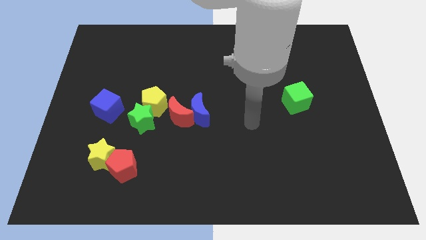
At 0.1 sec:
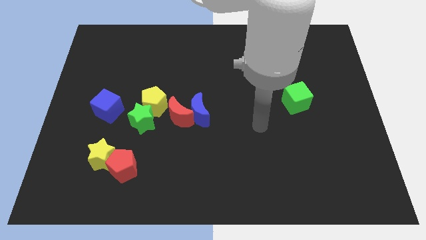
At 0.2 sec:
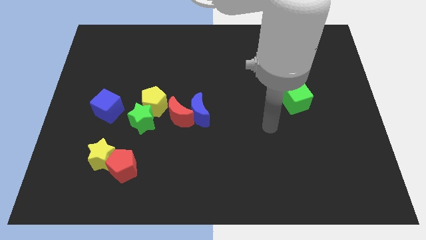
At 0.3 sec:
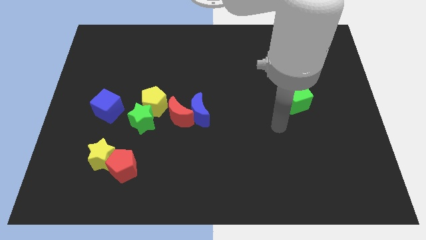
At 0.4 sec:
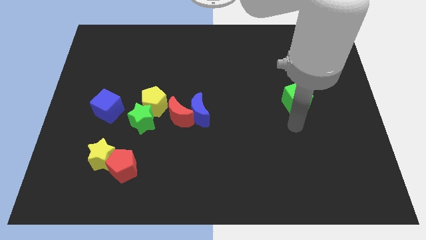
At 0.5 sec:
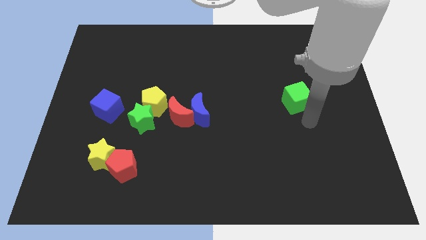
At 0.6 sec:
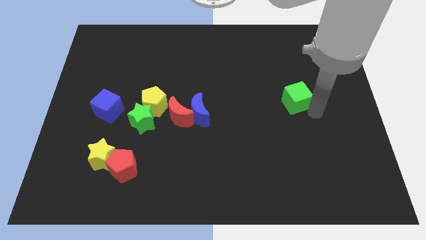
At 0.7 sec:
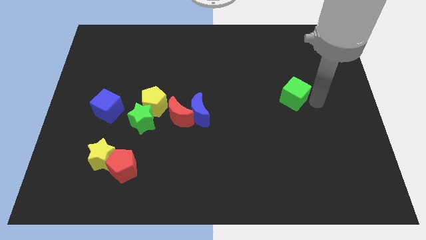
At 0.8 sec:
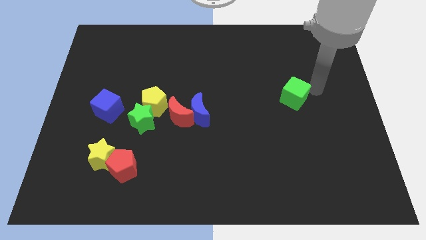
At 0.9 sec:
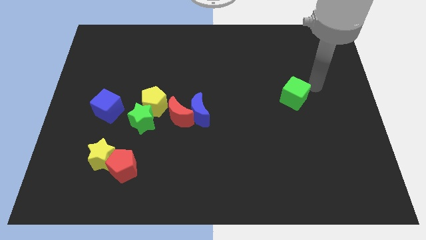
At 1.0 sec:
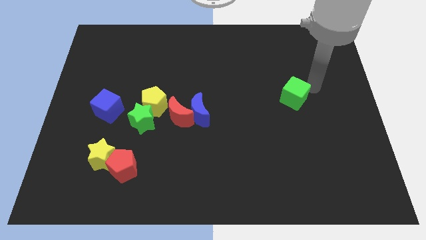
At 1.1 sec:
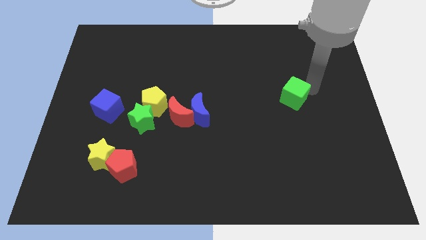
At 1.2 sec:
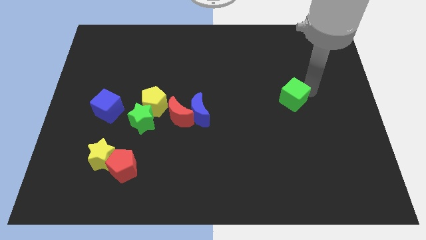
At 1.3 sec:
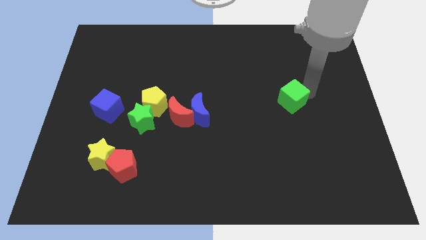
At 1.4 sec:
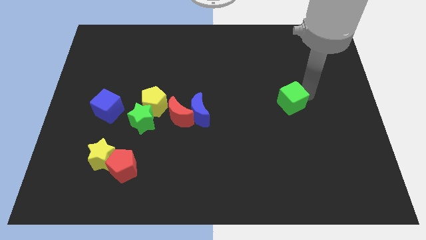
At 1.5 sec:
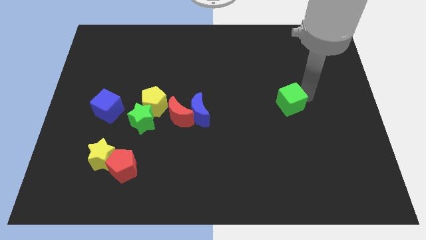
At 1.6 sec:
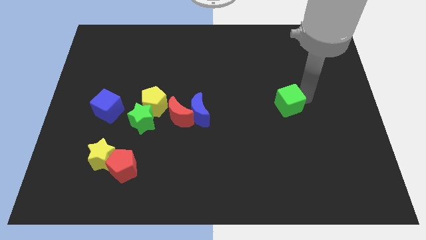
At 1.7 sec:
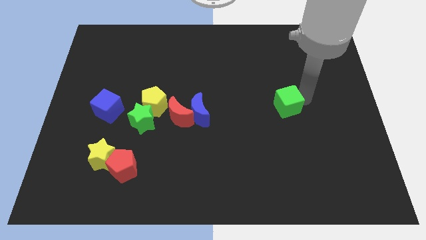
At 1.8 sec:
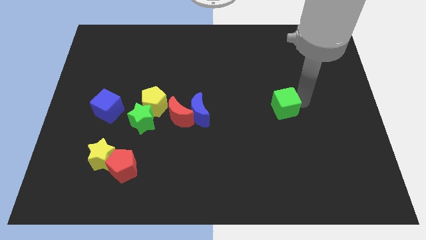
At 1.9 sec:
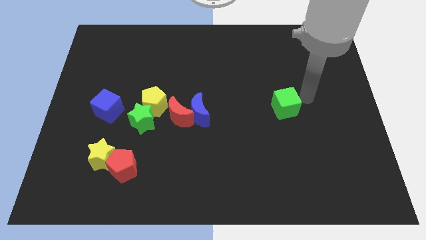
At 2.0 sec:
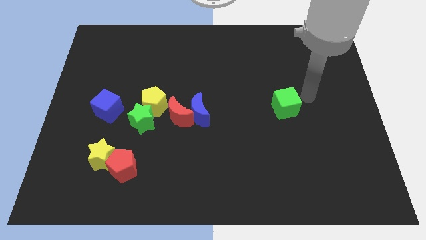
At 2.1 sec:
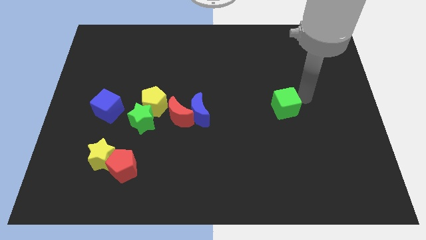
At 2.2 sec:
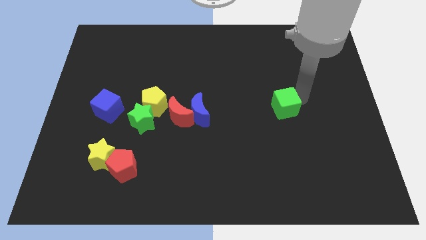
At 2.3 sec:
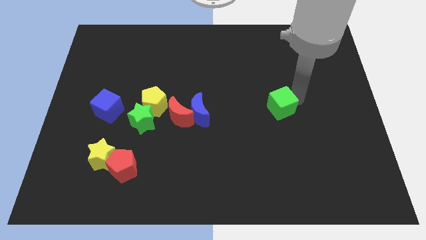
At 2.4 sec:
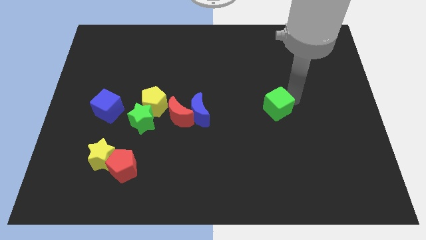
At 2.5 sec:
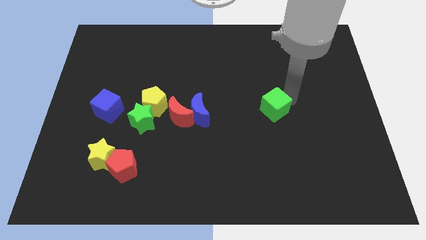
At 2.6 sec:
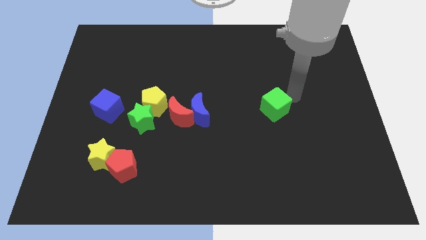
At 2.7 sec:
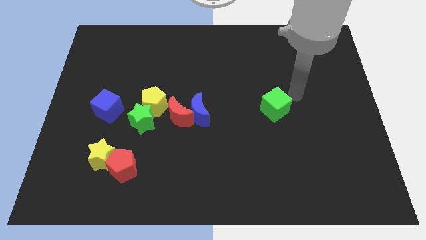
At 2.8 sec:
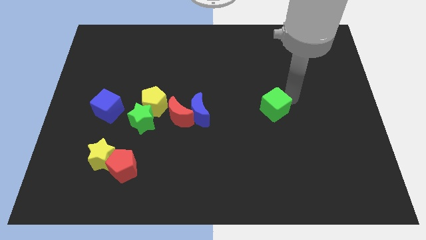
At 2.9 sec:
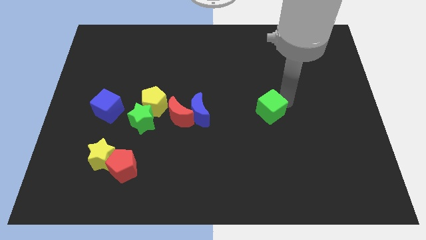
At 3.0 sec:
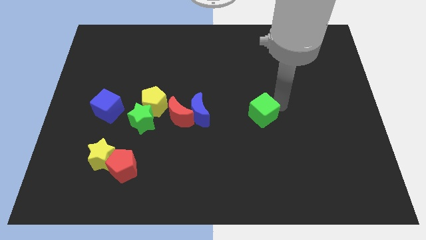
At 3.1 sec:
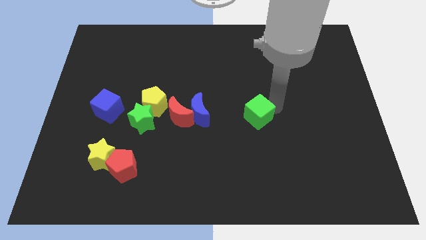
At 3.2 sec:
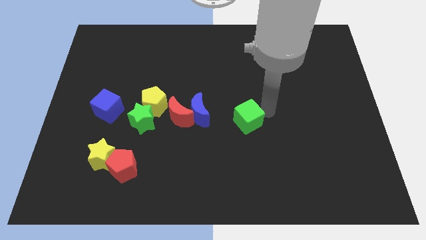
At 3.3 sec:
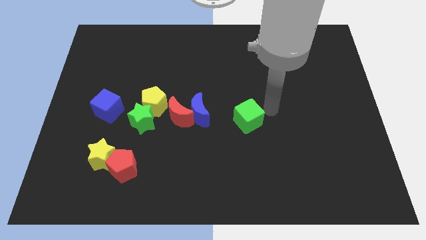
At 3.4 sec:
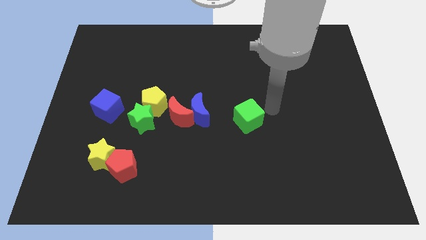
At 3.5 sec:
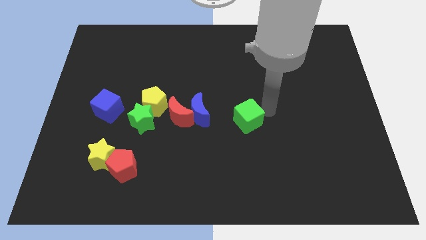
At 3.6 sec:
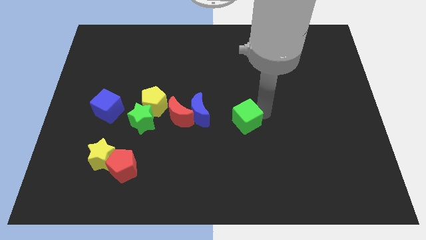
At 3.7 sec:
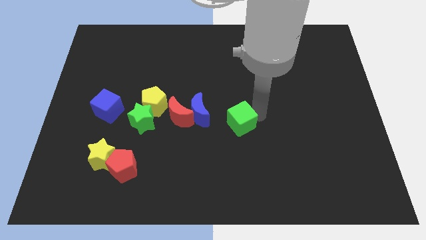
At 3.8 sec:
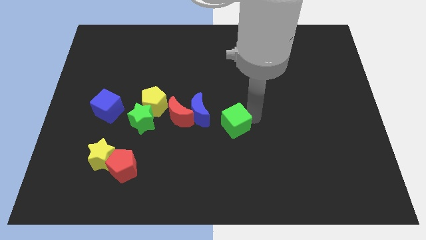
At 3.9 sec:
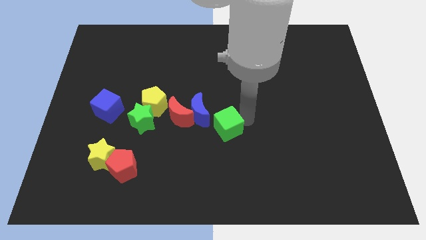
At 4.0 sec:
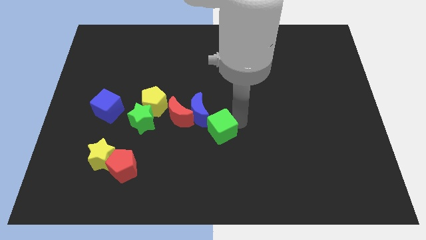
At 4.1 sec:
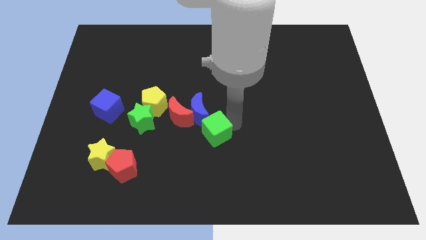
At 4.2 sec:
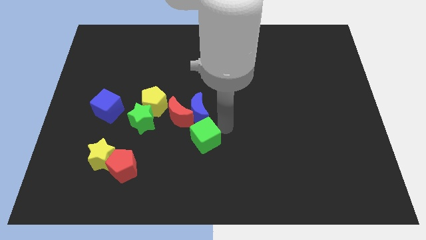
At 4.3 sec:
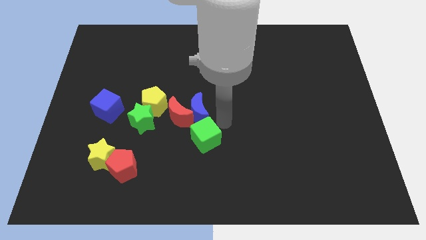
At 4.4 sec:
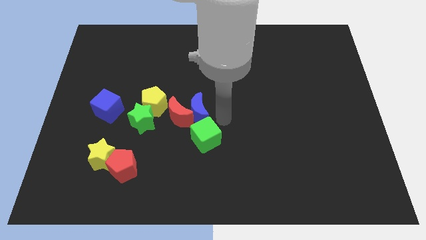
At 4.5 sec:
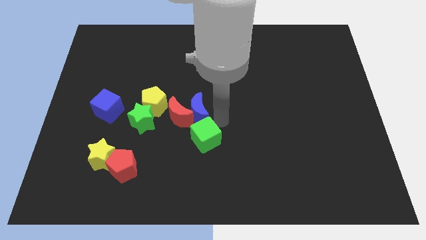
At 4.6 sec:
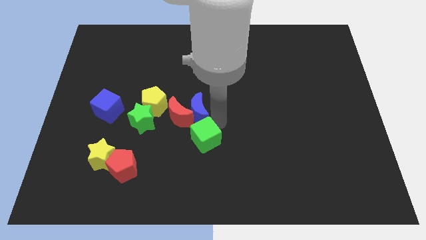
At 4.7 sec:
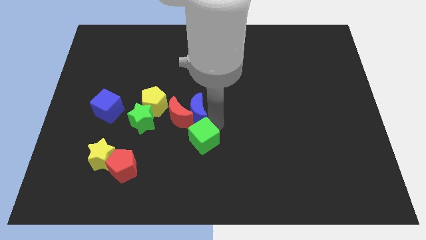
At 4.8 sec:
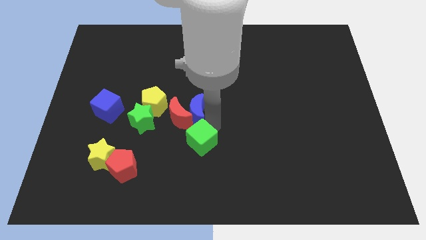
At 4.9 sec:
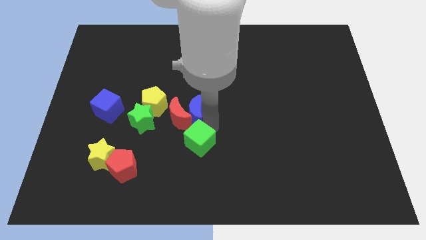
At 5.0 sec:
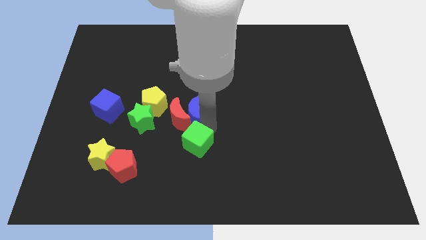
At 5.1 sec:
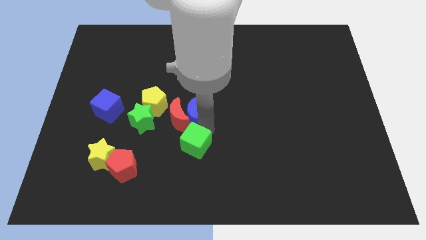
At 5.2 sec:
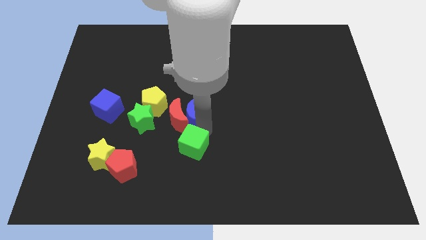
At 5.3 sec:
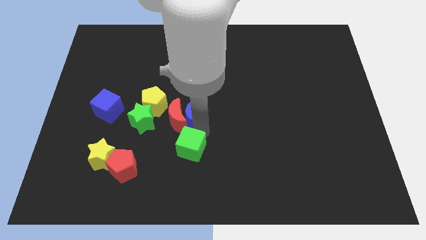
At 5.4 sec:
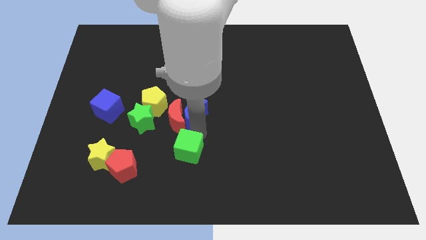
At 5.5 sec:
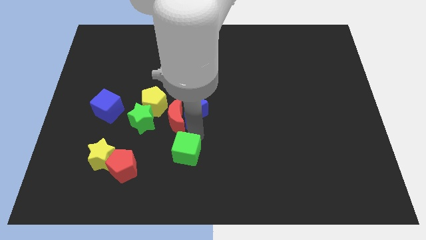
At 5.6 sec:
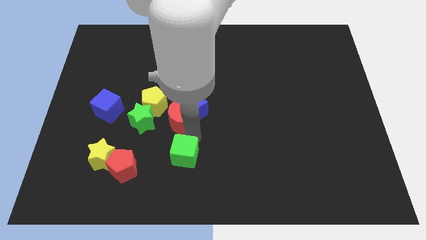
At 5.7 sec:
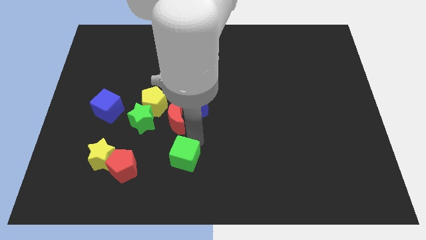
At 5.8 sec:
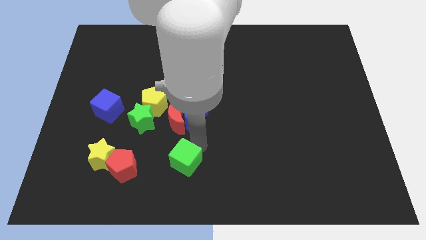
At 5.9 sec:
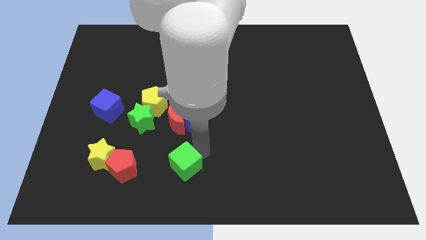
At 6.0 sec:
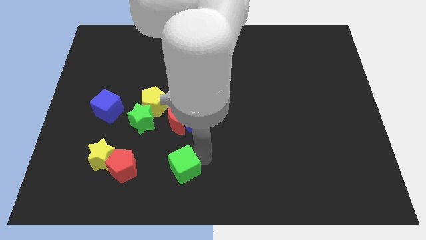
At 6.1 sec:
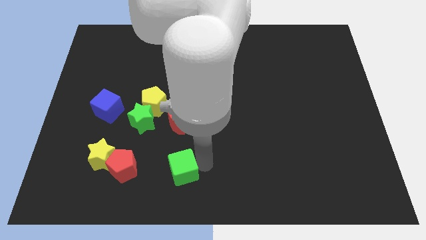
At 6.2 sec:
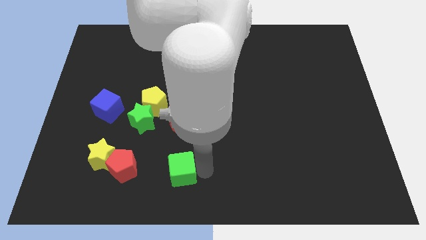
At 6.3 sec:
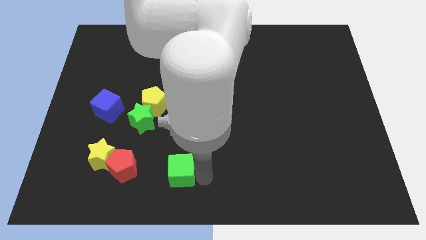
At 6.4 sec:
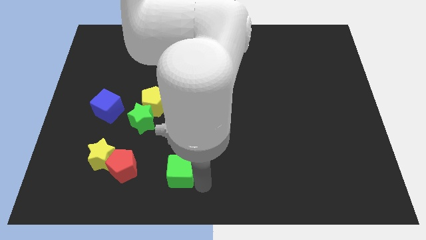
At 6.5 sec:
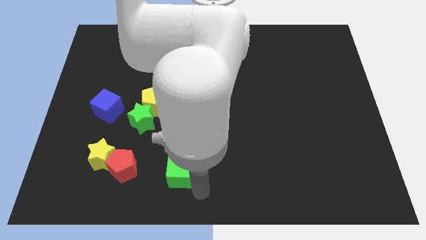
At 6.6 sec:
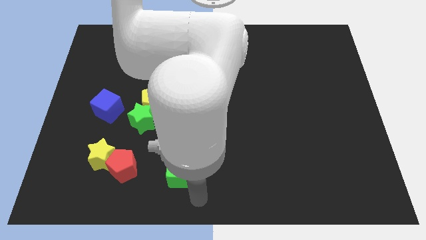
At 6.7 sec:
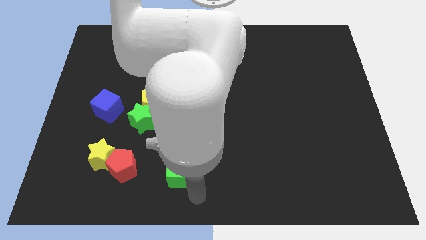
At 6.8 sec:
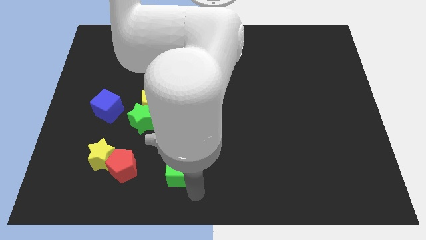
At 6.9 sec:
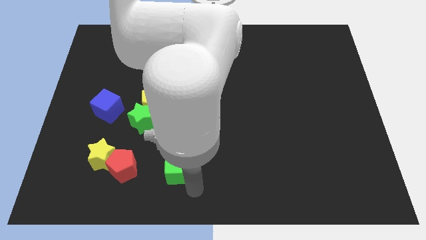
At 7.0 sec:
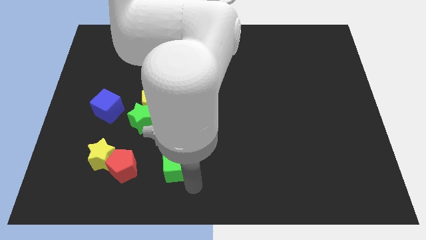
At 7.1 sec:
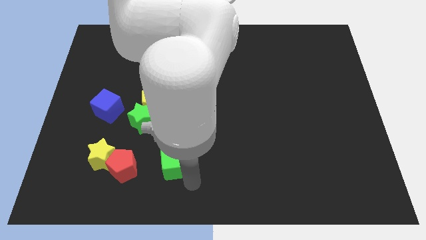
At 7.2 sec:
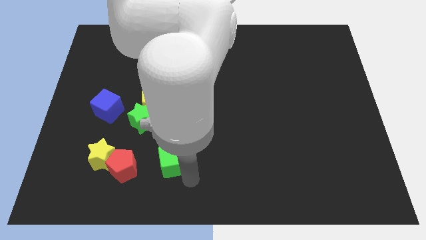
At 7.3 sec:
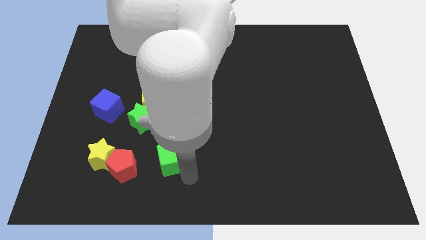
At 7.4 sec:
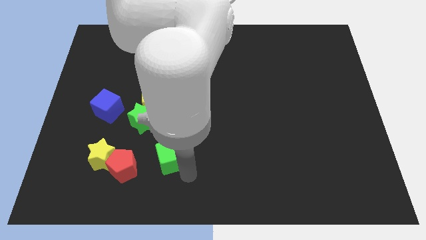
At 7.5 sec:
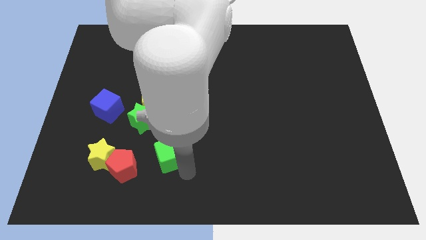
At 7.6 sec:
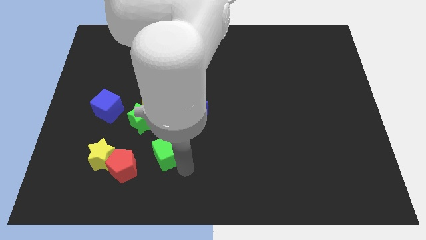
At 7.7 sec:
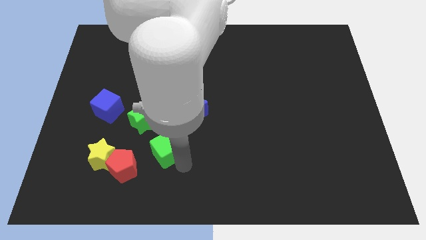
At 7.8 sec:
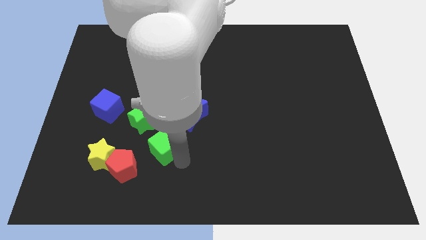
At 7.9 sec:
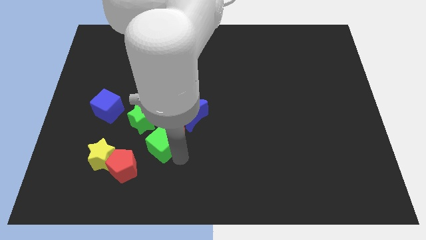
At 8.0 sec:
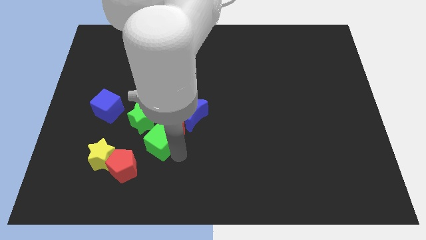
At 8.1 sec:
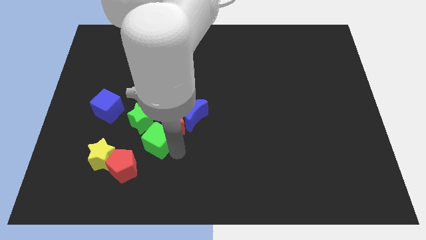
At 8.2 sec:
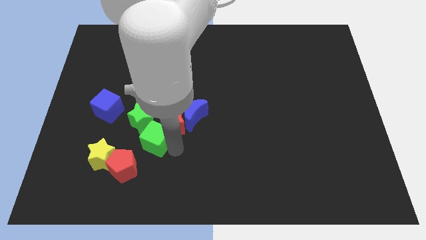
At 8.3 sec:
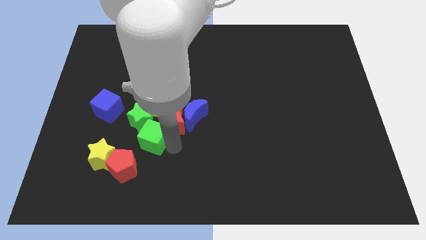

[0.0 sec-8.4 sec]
move the green cube to the top right side of the yellow star
